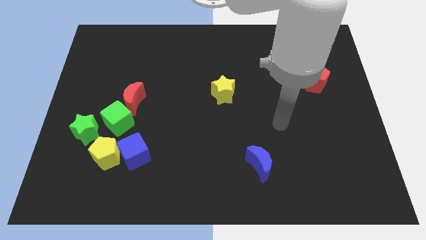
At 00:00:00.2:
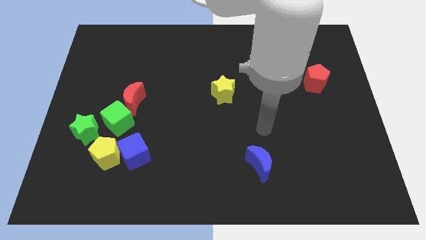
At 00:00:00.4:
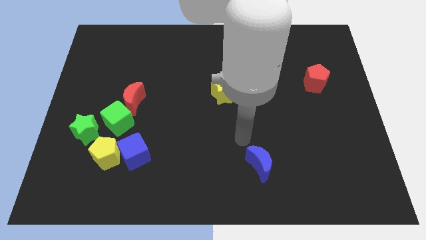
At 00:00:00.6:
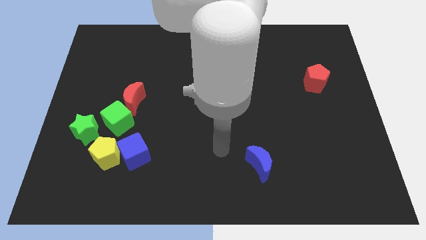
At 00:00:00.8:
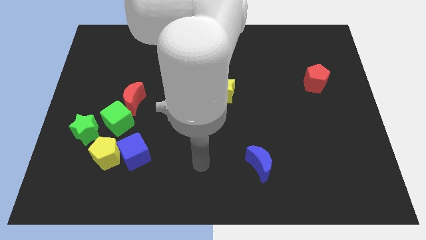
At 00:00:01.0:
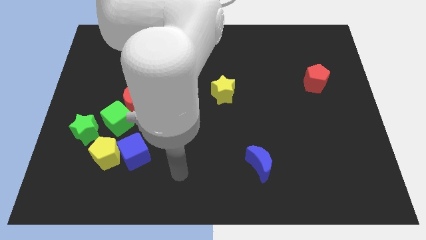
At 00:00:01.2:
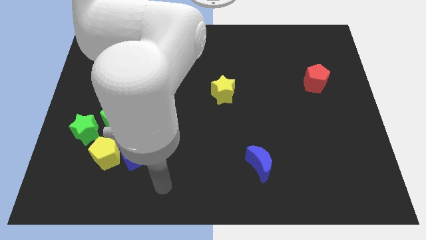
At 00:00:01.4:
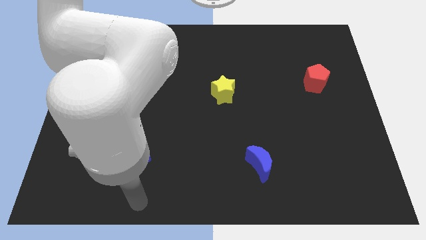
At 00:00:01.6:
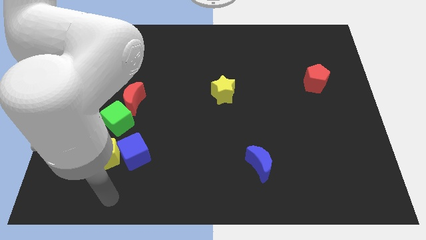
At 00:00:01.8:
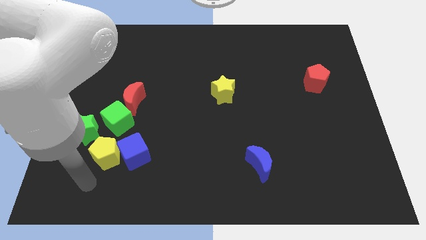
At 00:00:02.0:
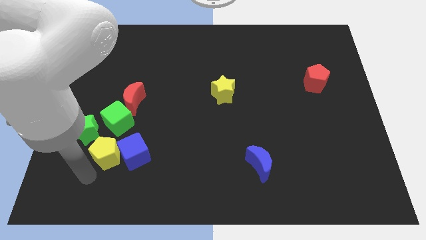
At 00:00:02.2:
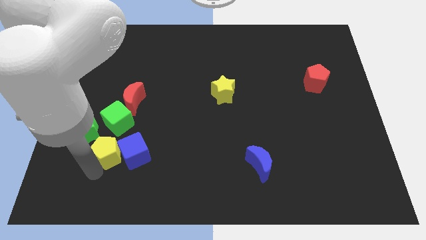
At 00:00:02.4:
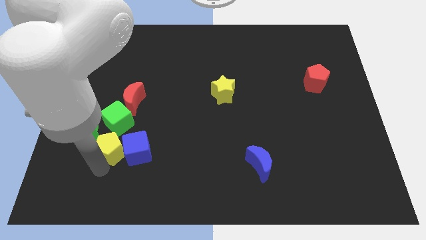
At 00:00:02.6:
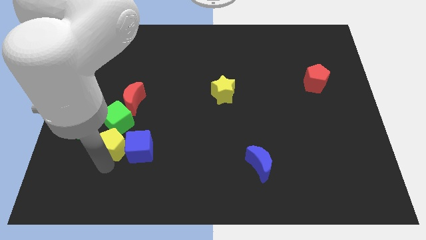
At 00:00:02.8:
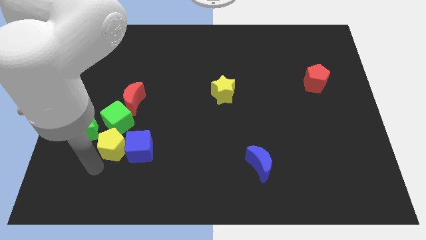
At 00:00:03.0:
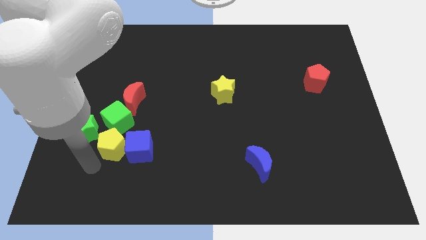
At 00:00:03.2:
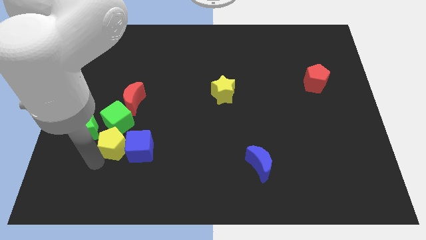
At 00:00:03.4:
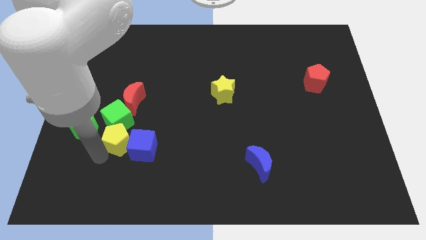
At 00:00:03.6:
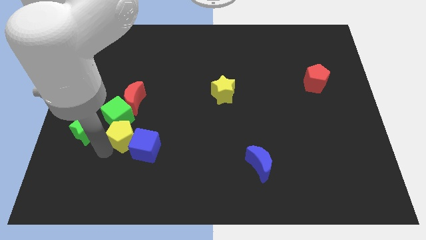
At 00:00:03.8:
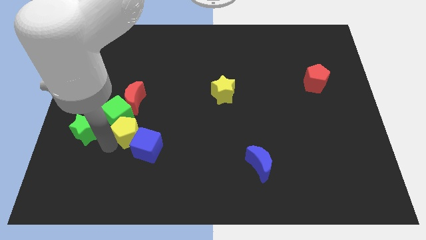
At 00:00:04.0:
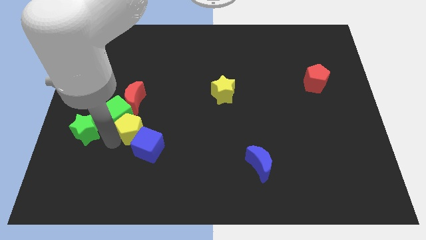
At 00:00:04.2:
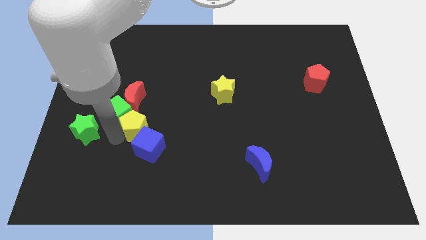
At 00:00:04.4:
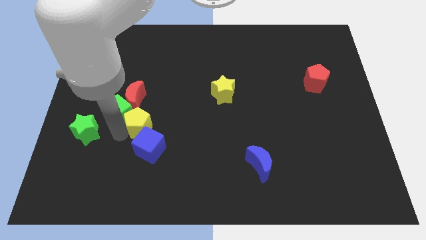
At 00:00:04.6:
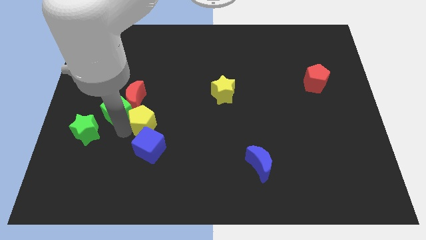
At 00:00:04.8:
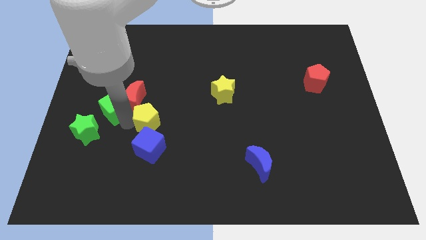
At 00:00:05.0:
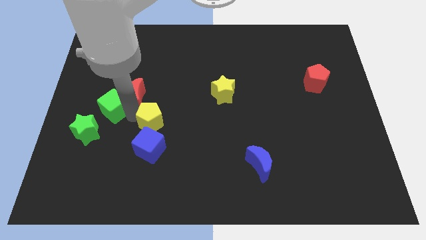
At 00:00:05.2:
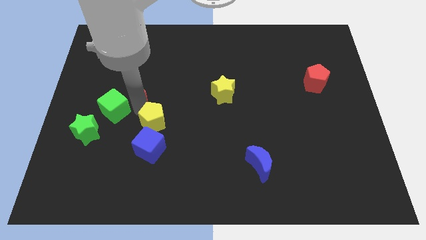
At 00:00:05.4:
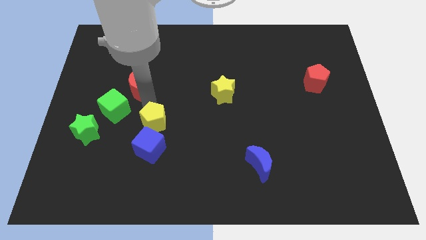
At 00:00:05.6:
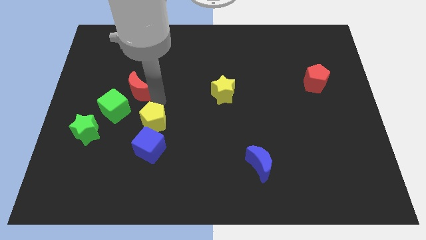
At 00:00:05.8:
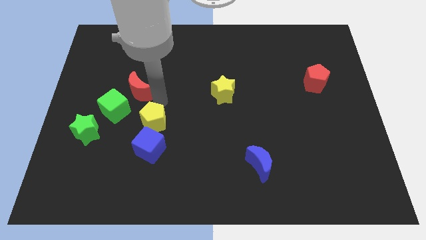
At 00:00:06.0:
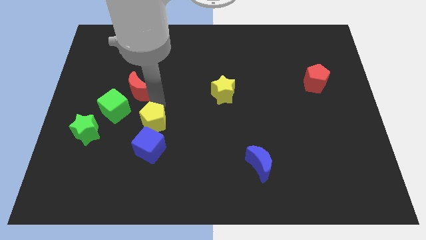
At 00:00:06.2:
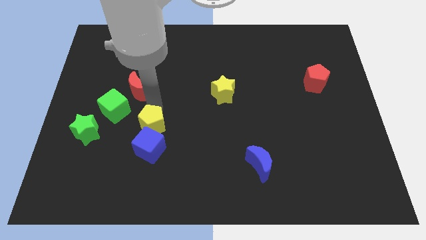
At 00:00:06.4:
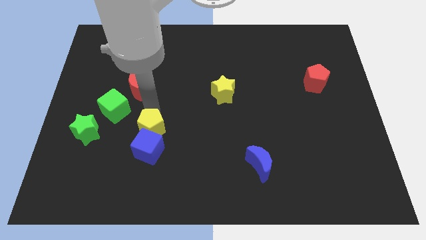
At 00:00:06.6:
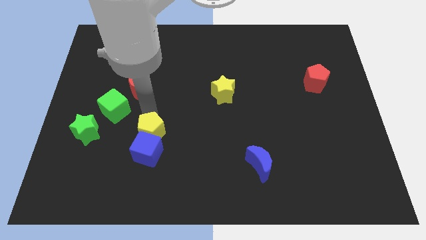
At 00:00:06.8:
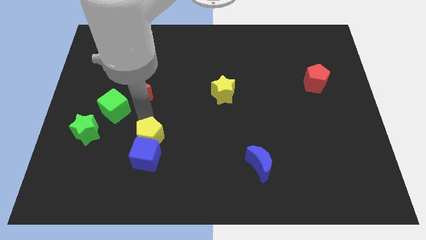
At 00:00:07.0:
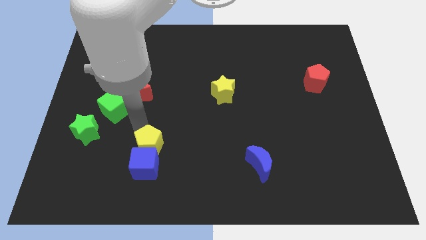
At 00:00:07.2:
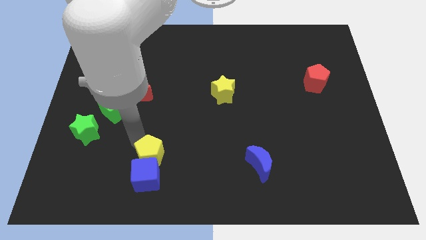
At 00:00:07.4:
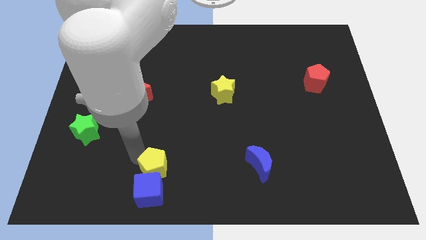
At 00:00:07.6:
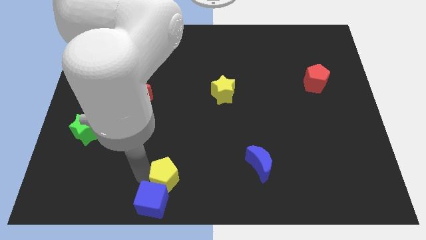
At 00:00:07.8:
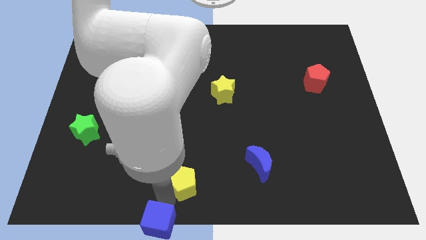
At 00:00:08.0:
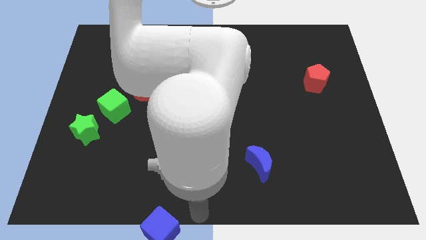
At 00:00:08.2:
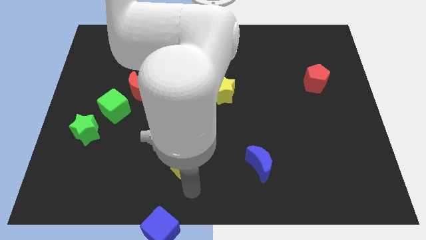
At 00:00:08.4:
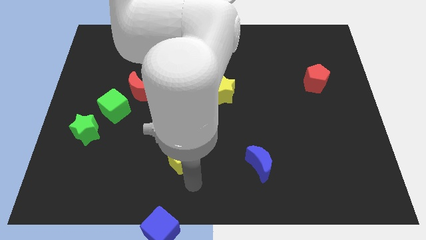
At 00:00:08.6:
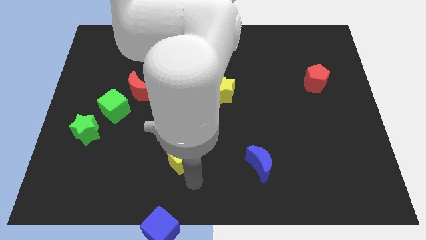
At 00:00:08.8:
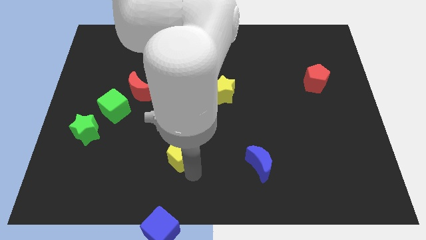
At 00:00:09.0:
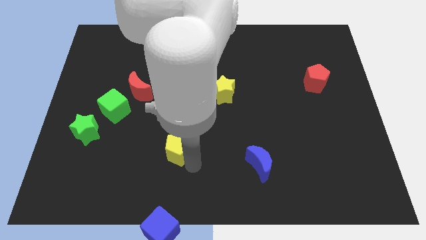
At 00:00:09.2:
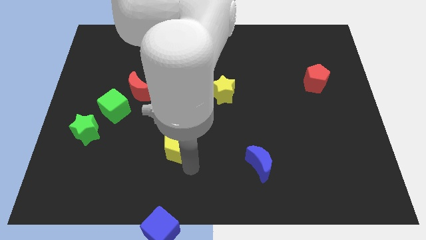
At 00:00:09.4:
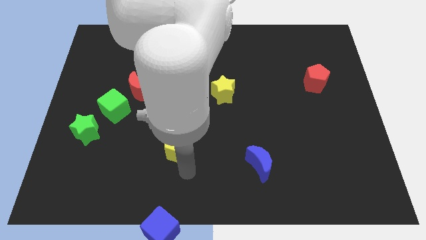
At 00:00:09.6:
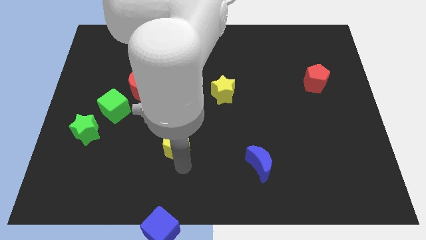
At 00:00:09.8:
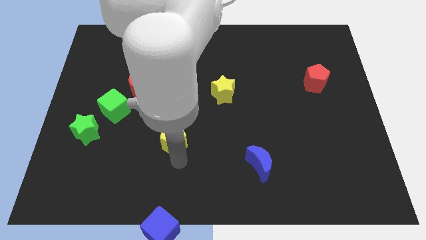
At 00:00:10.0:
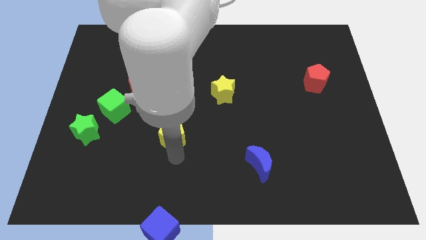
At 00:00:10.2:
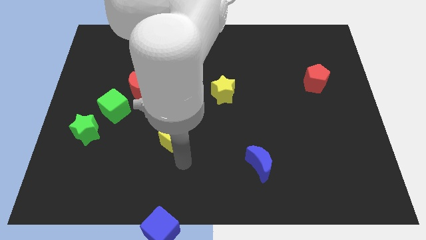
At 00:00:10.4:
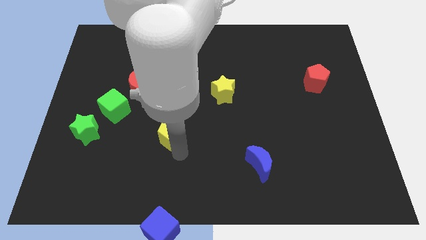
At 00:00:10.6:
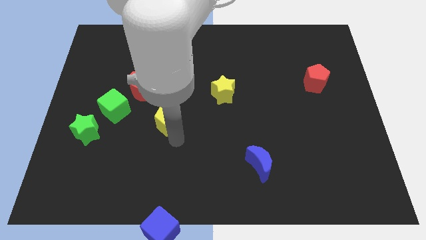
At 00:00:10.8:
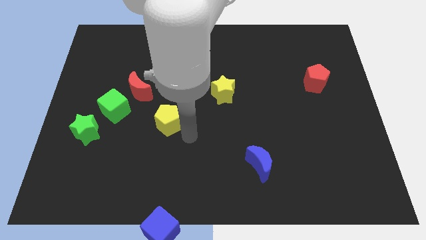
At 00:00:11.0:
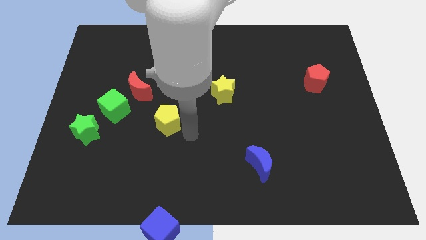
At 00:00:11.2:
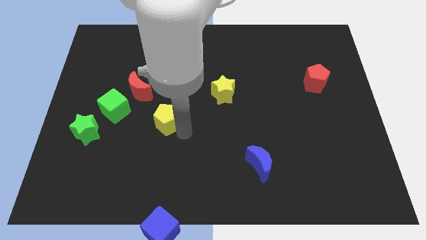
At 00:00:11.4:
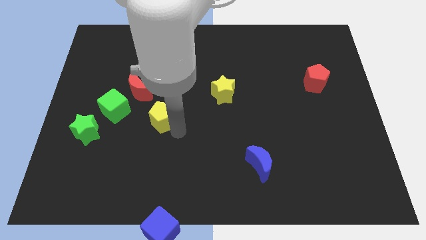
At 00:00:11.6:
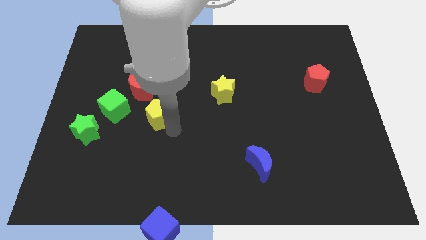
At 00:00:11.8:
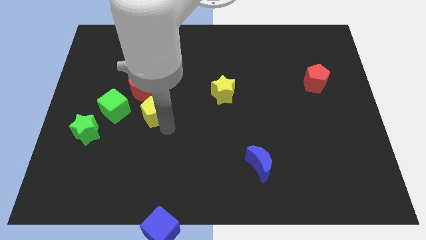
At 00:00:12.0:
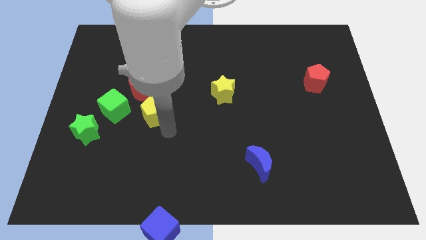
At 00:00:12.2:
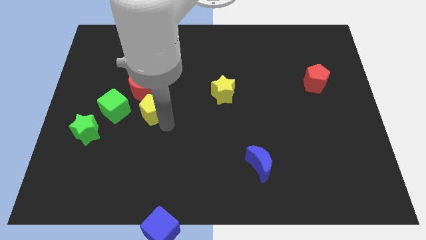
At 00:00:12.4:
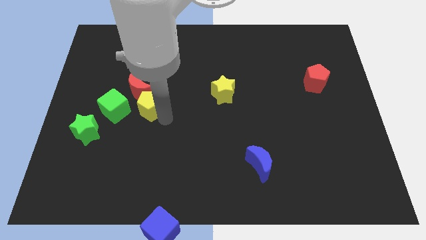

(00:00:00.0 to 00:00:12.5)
slide the yellow pentagon to the red moon
